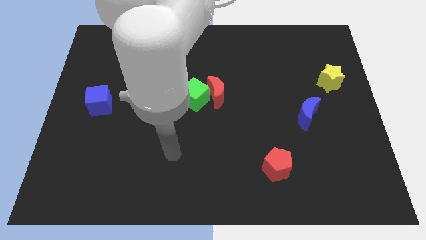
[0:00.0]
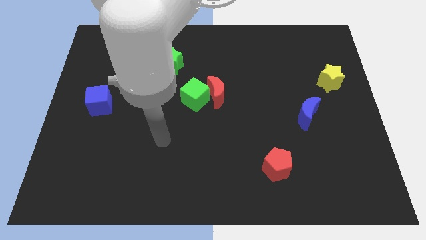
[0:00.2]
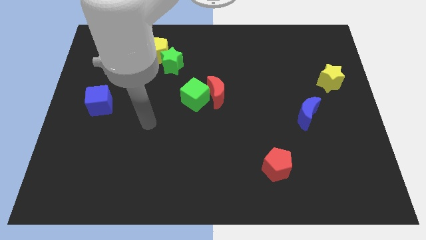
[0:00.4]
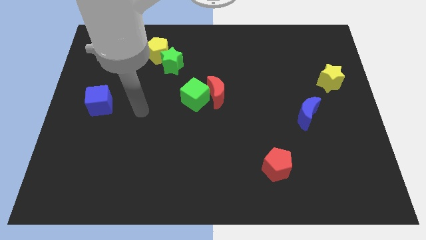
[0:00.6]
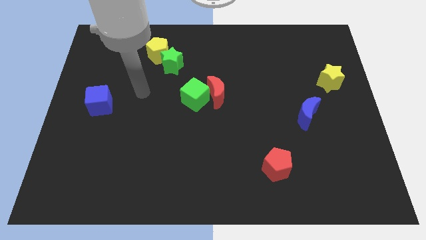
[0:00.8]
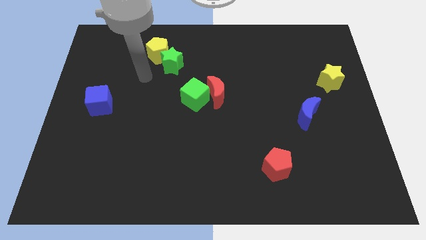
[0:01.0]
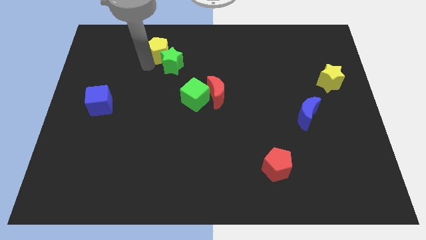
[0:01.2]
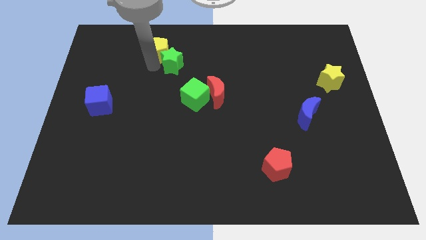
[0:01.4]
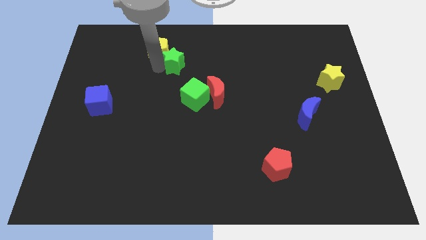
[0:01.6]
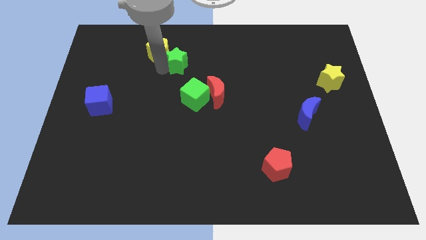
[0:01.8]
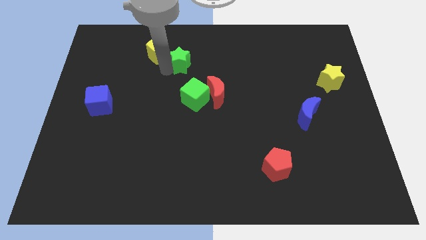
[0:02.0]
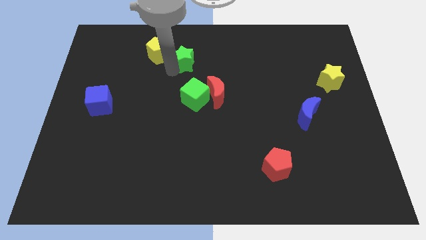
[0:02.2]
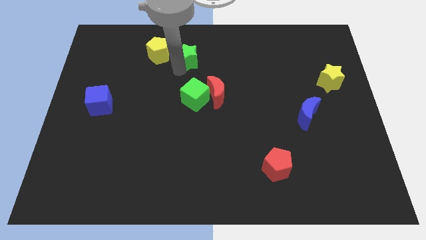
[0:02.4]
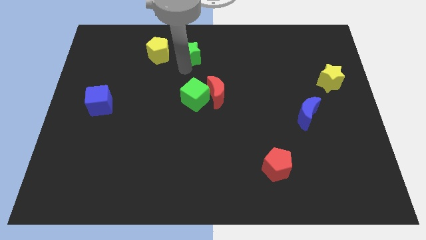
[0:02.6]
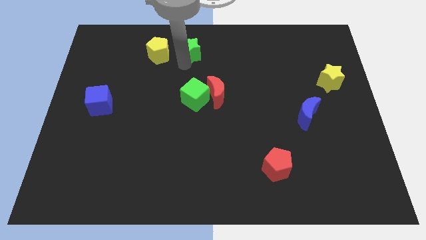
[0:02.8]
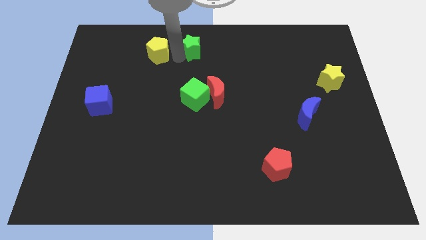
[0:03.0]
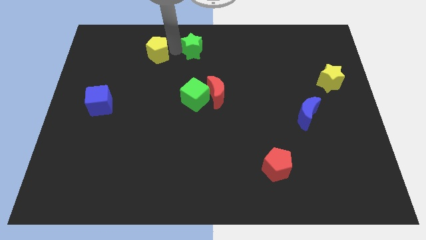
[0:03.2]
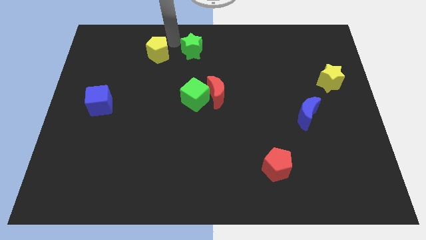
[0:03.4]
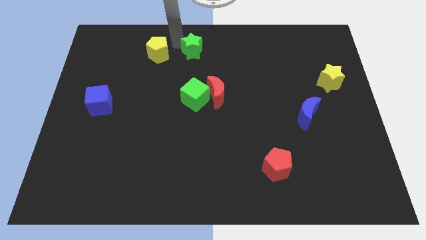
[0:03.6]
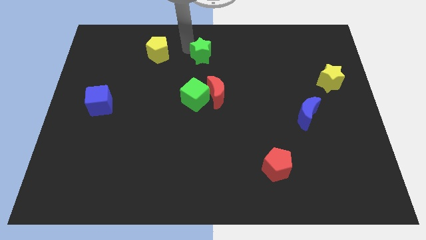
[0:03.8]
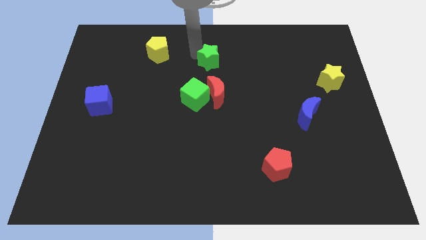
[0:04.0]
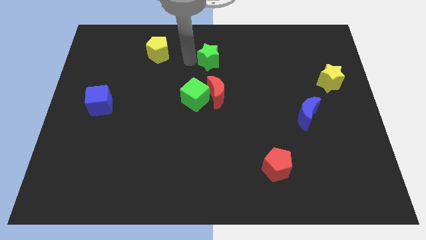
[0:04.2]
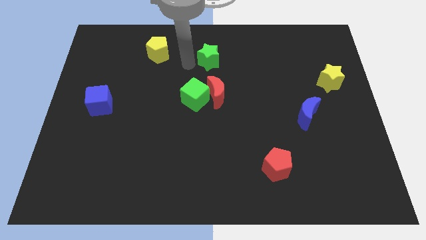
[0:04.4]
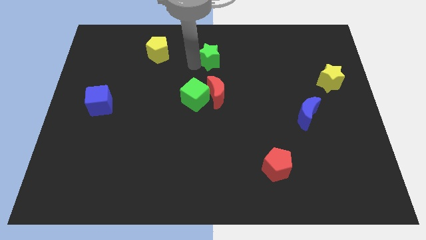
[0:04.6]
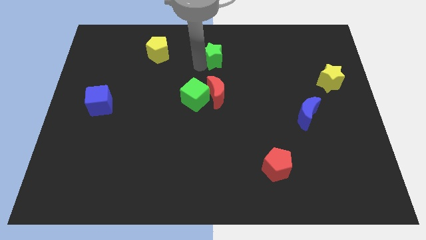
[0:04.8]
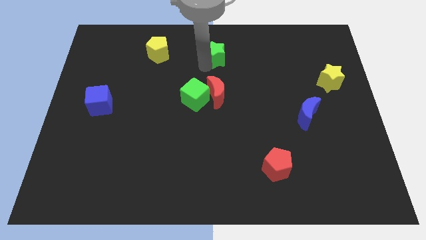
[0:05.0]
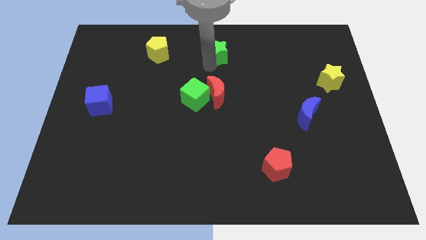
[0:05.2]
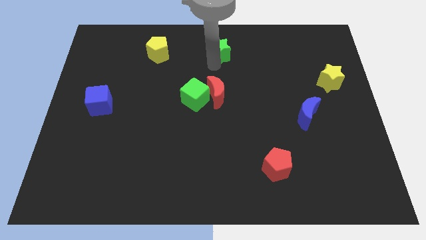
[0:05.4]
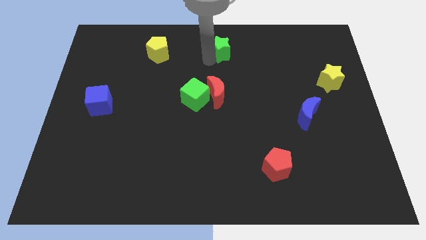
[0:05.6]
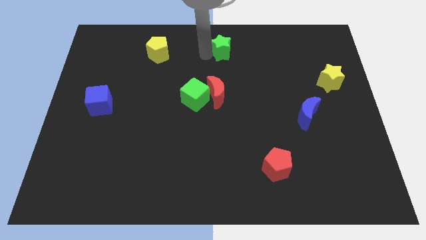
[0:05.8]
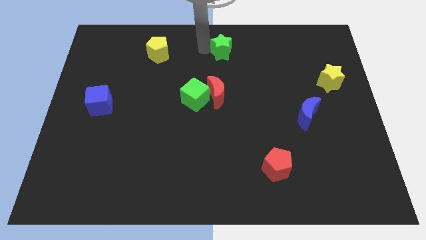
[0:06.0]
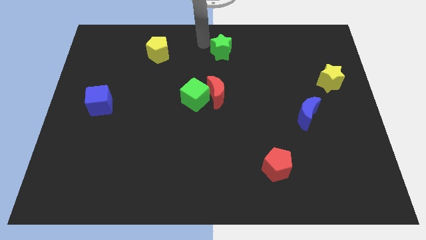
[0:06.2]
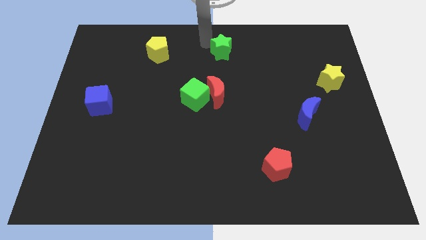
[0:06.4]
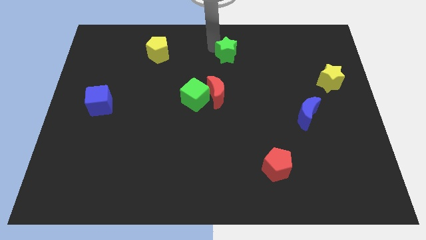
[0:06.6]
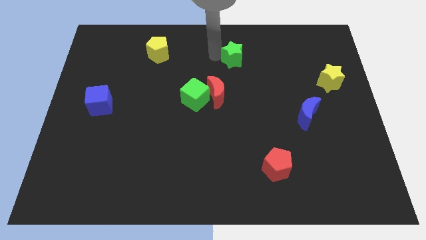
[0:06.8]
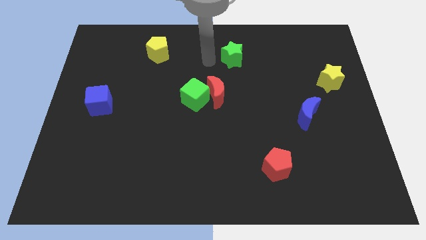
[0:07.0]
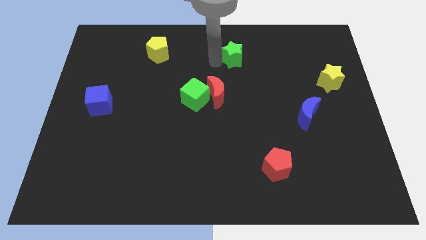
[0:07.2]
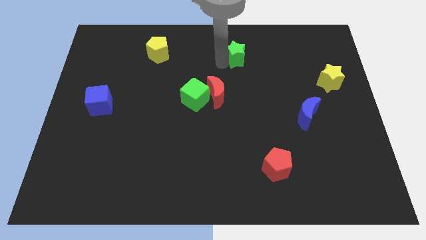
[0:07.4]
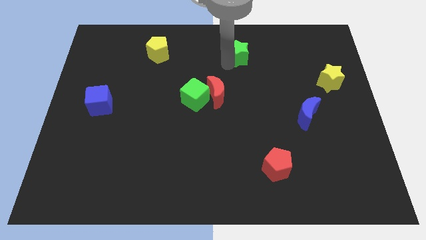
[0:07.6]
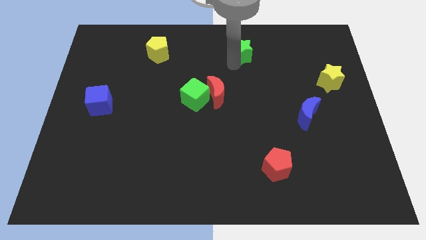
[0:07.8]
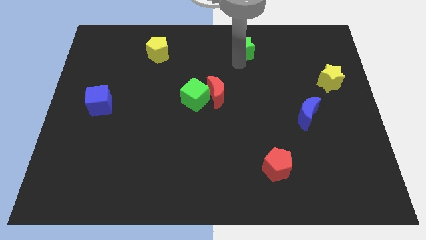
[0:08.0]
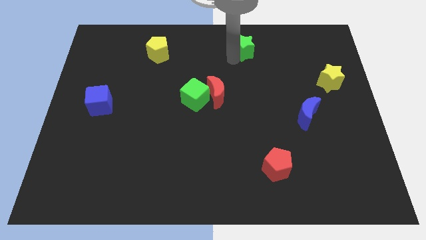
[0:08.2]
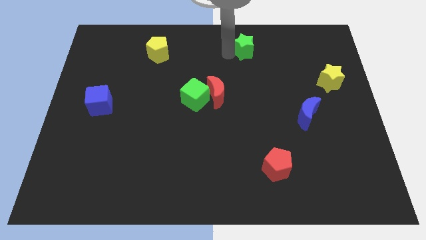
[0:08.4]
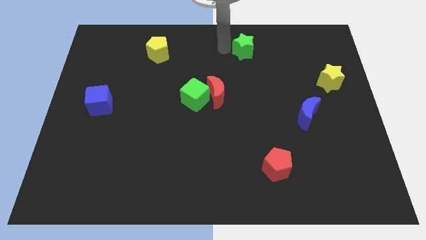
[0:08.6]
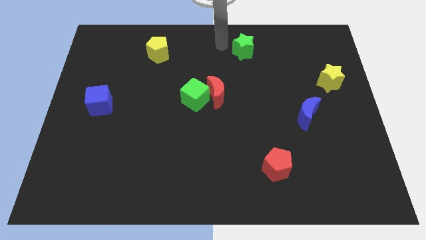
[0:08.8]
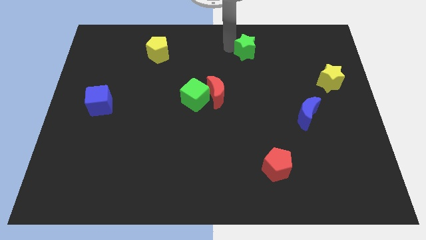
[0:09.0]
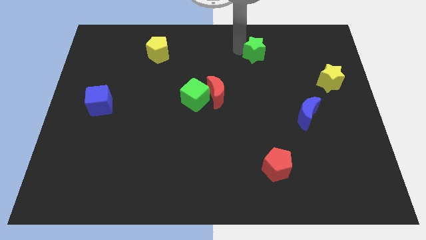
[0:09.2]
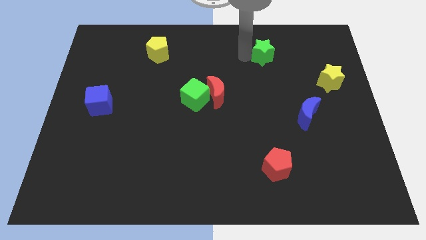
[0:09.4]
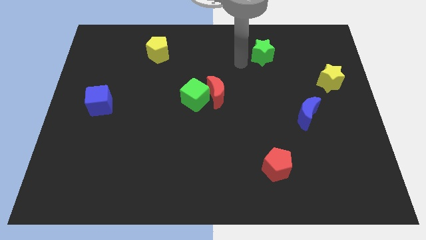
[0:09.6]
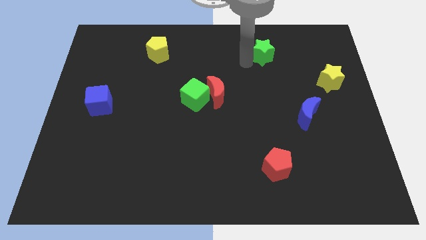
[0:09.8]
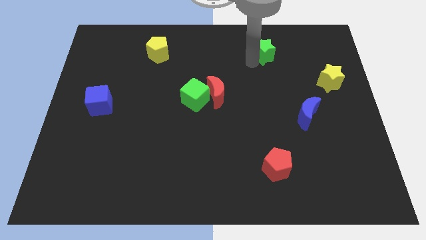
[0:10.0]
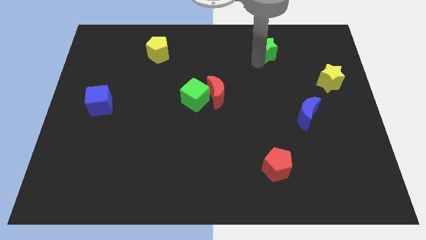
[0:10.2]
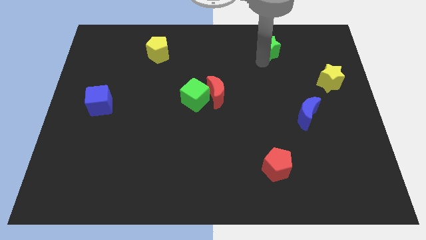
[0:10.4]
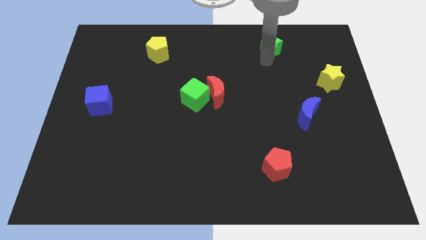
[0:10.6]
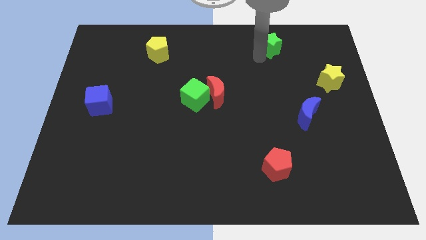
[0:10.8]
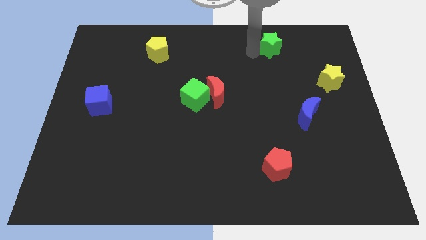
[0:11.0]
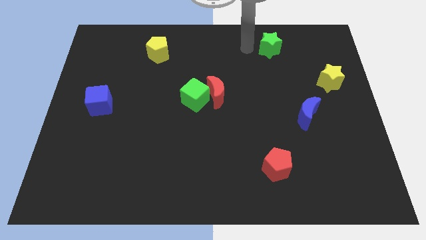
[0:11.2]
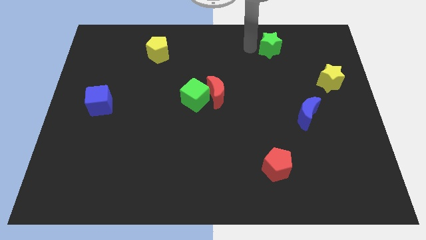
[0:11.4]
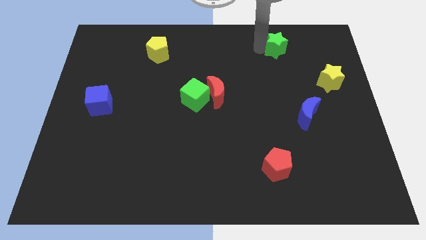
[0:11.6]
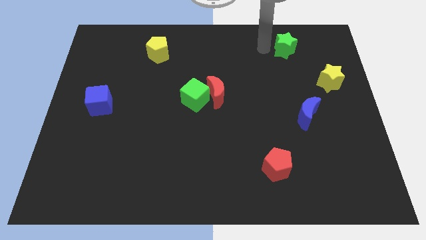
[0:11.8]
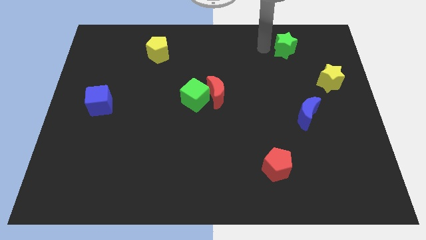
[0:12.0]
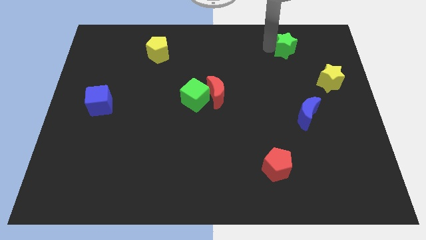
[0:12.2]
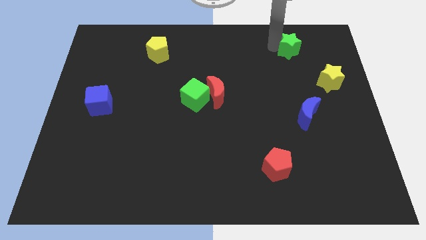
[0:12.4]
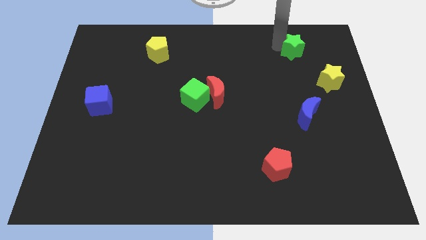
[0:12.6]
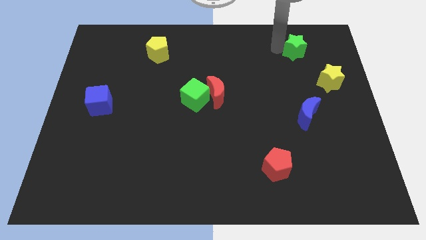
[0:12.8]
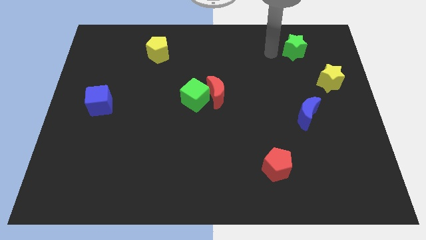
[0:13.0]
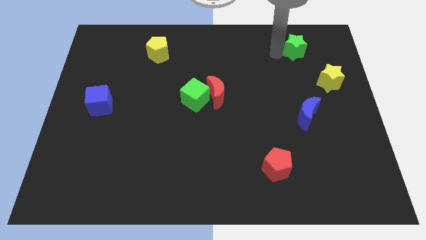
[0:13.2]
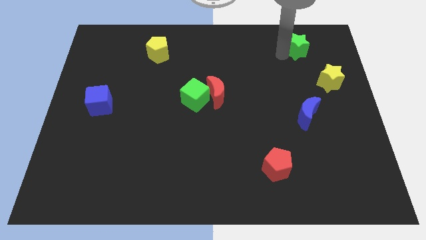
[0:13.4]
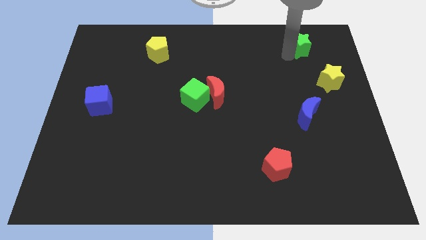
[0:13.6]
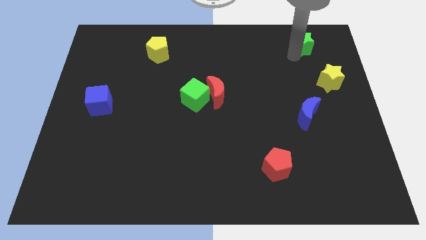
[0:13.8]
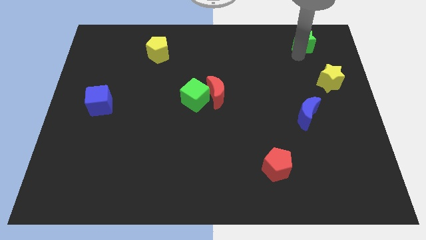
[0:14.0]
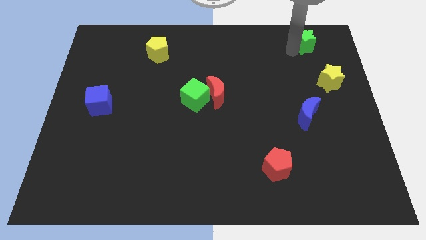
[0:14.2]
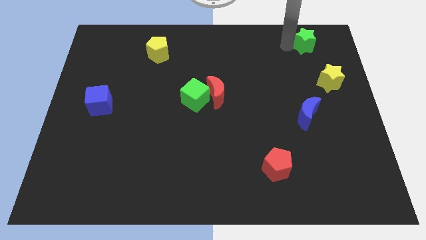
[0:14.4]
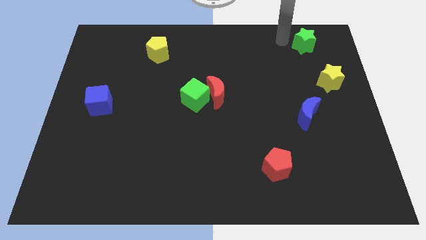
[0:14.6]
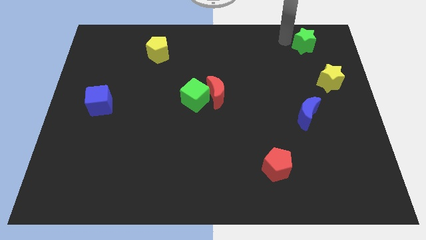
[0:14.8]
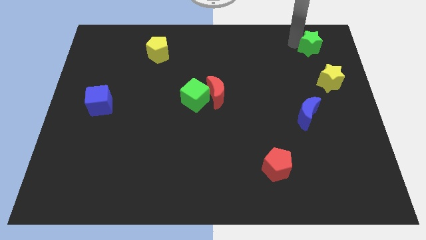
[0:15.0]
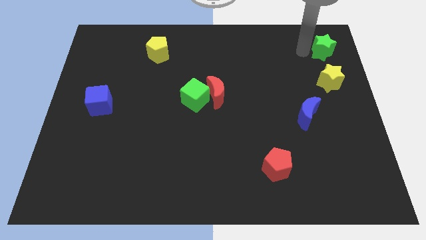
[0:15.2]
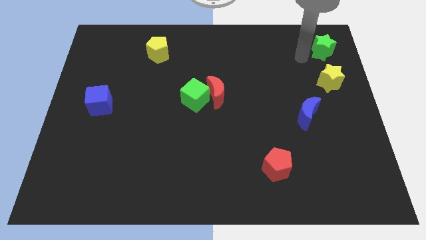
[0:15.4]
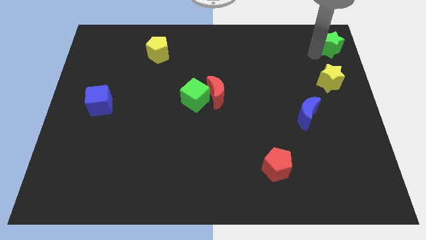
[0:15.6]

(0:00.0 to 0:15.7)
slide the green star to the upper right corner
